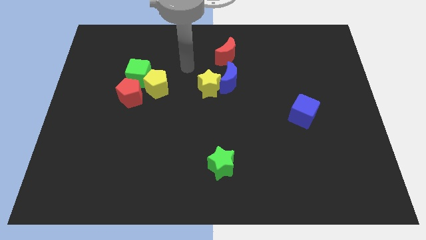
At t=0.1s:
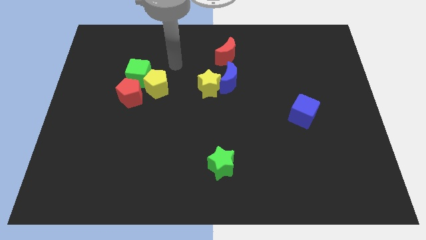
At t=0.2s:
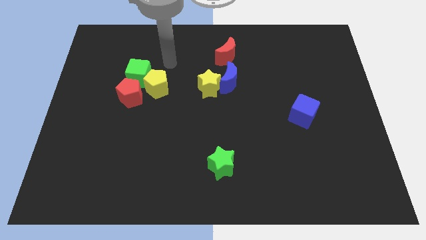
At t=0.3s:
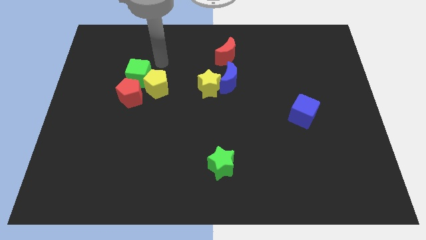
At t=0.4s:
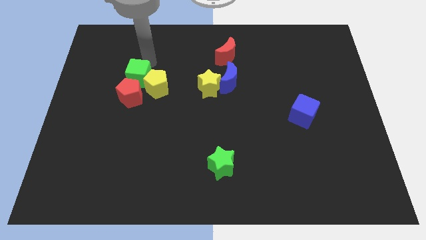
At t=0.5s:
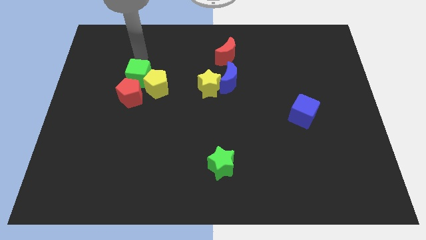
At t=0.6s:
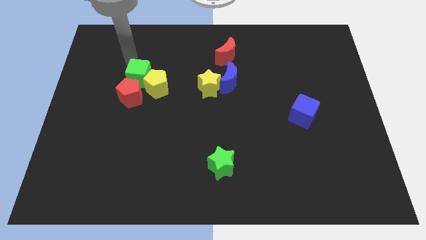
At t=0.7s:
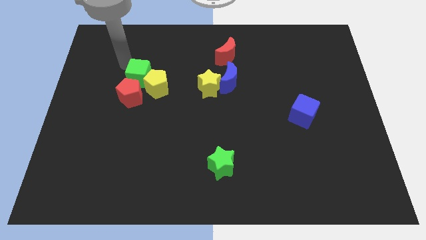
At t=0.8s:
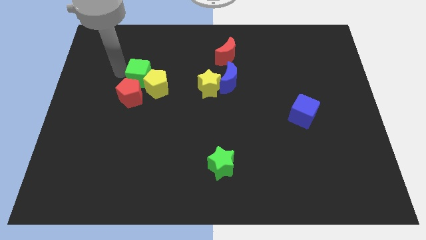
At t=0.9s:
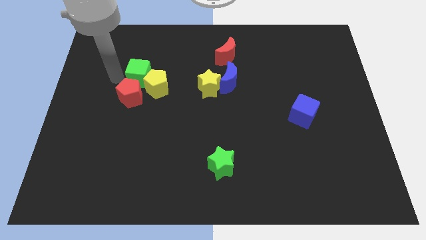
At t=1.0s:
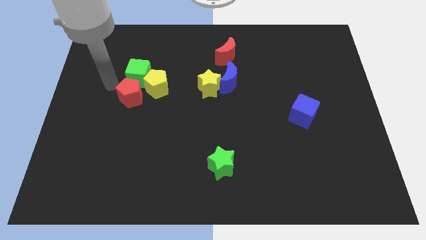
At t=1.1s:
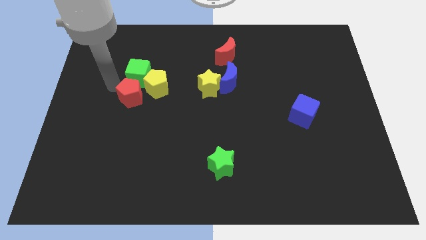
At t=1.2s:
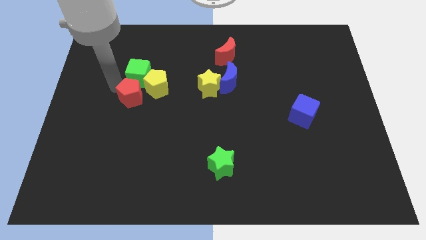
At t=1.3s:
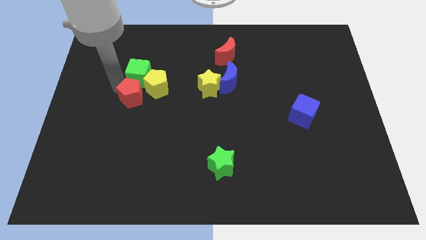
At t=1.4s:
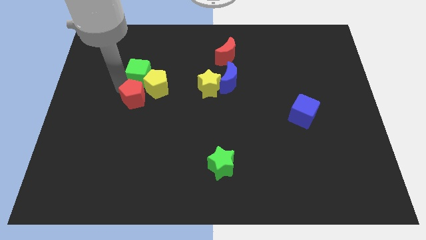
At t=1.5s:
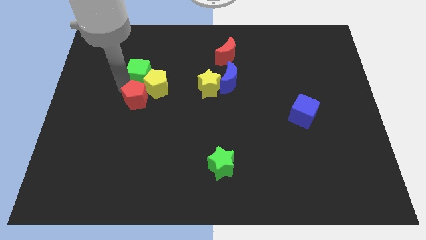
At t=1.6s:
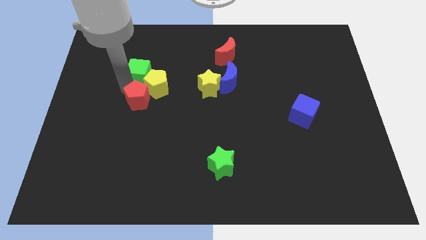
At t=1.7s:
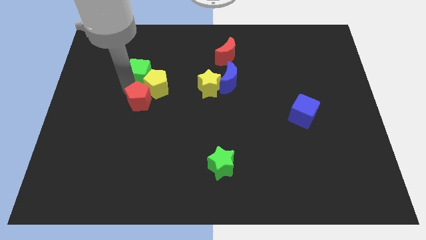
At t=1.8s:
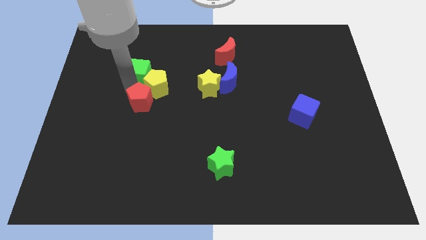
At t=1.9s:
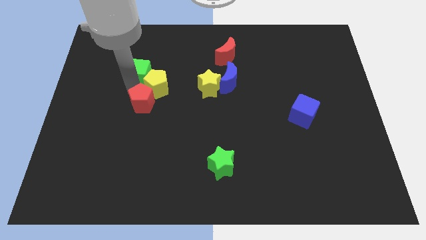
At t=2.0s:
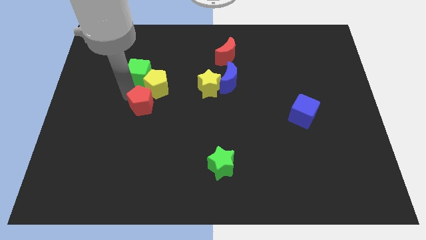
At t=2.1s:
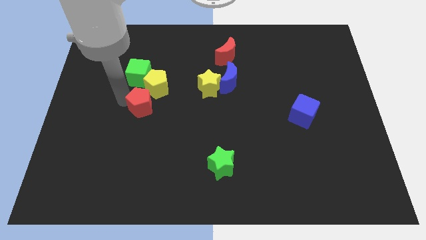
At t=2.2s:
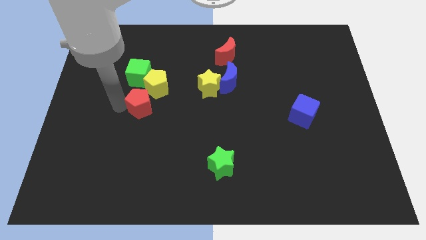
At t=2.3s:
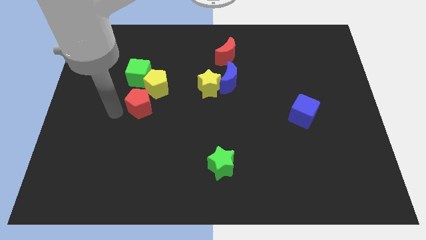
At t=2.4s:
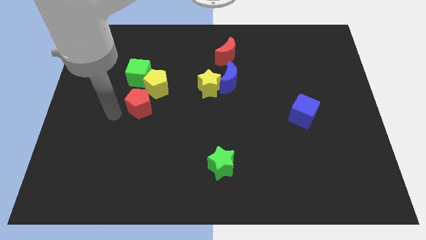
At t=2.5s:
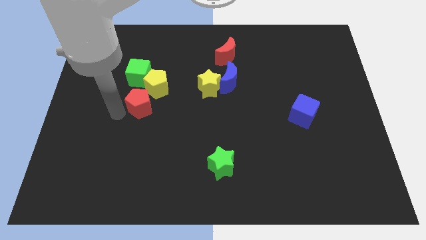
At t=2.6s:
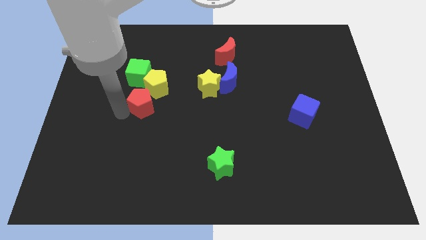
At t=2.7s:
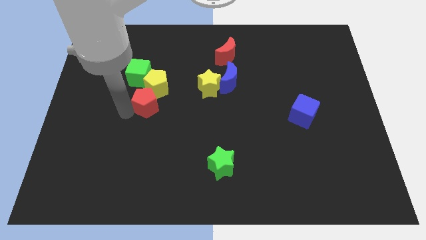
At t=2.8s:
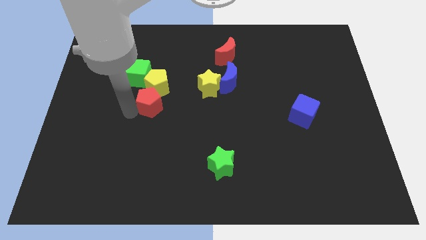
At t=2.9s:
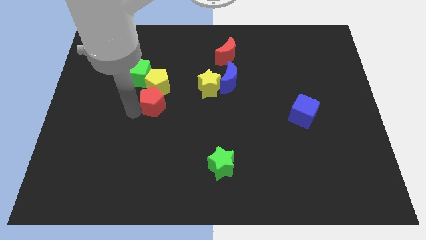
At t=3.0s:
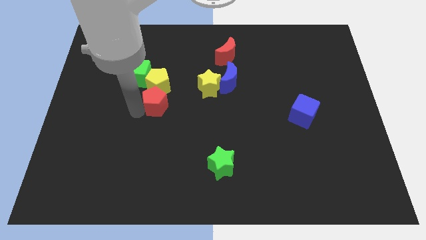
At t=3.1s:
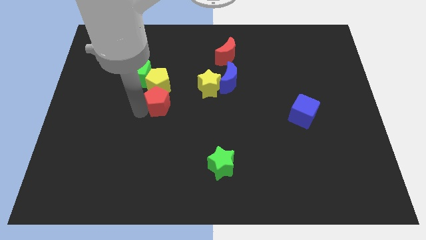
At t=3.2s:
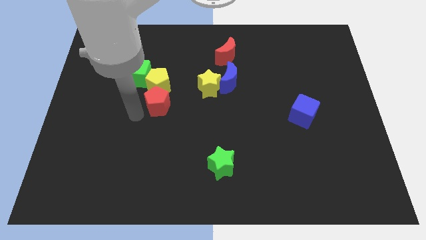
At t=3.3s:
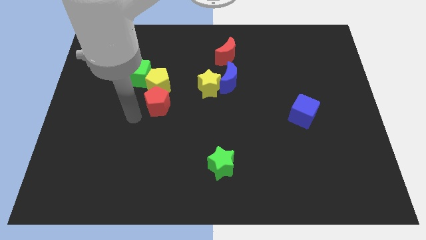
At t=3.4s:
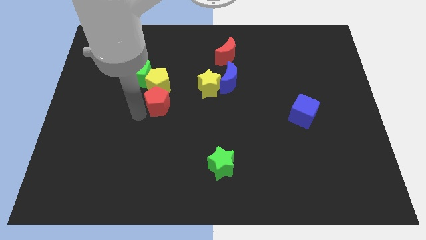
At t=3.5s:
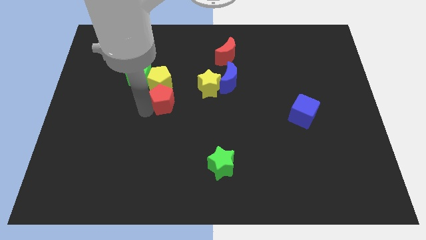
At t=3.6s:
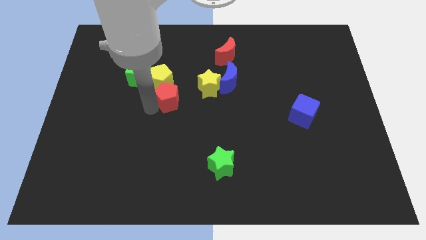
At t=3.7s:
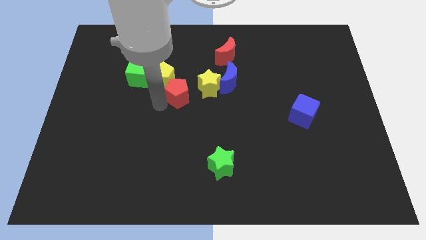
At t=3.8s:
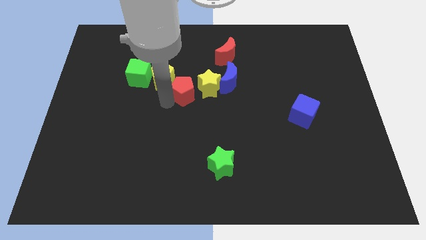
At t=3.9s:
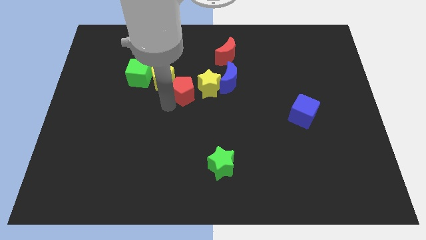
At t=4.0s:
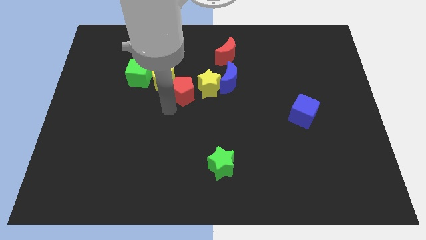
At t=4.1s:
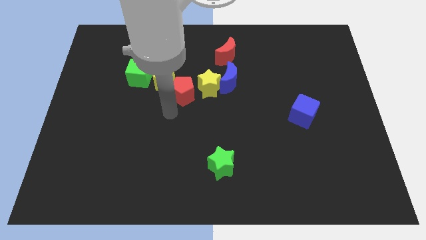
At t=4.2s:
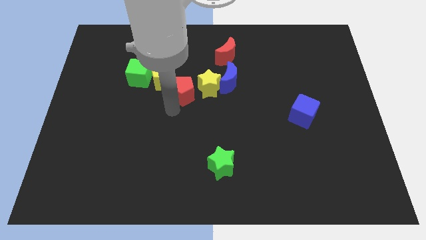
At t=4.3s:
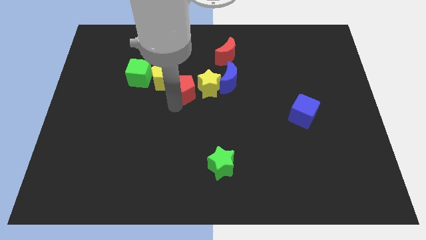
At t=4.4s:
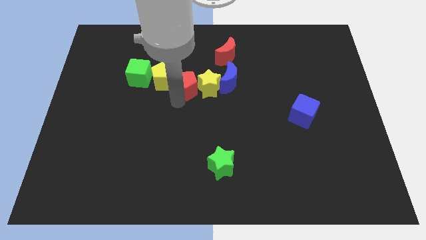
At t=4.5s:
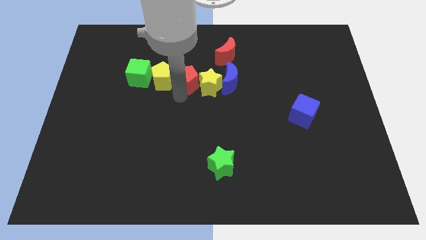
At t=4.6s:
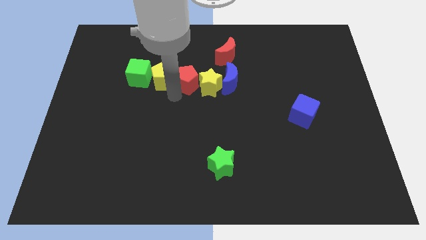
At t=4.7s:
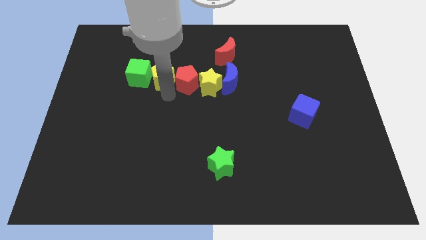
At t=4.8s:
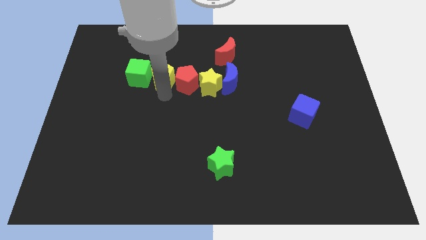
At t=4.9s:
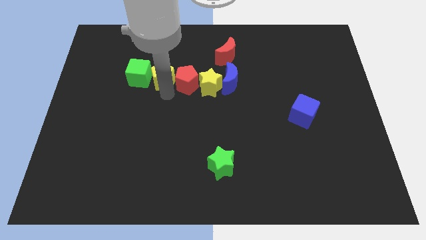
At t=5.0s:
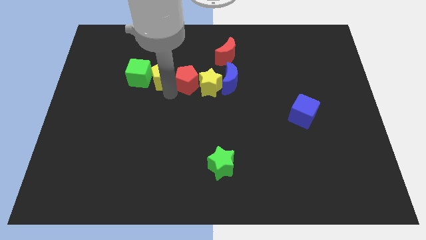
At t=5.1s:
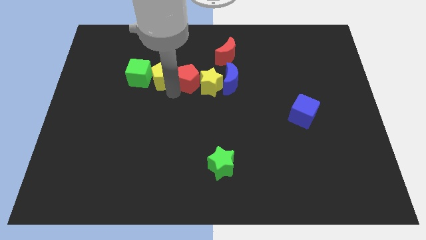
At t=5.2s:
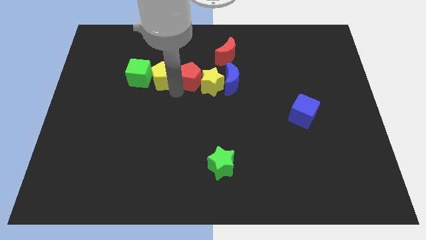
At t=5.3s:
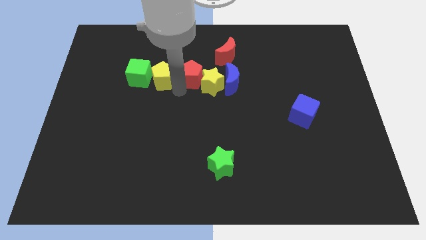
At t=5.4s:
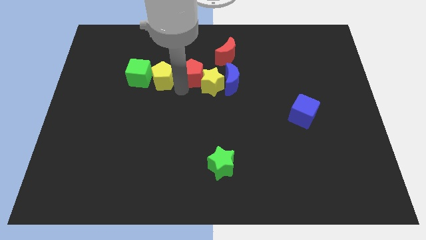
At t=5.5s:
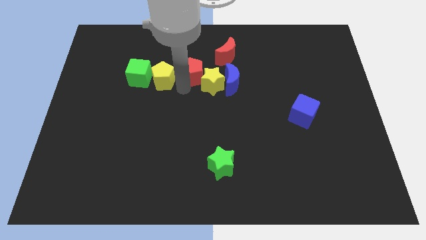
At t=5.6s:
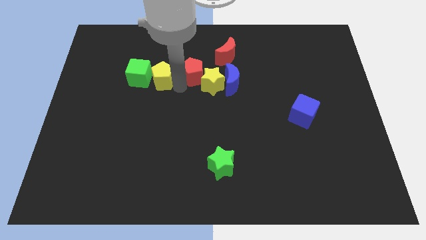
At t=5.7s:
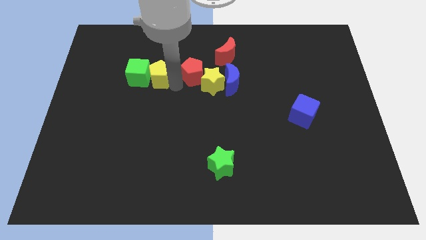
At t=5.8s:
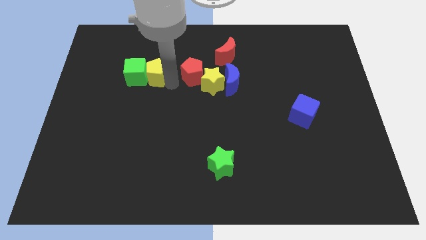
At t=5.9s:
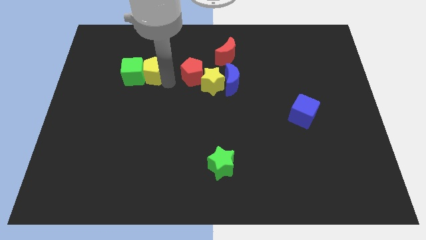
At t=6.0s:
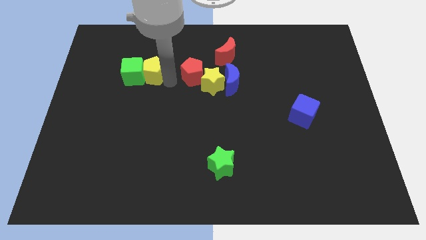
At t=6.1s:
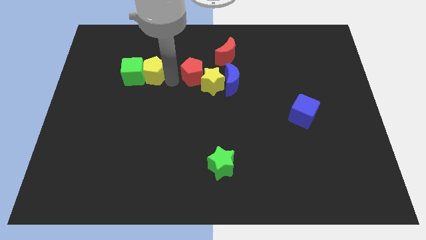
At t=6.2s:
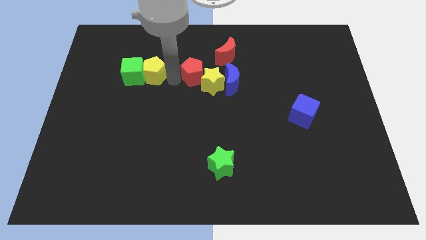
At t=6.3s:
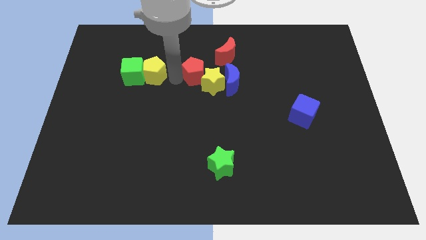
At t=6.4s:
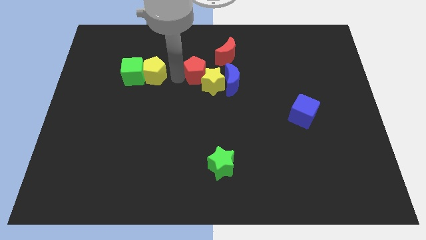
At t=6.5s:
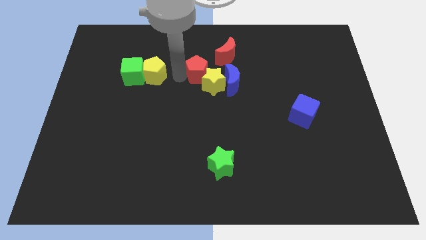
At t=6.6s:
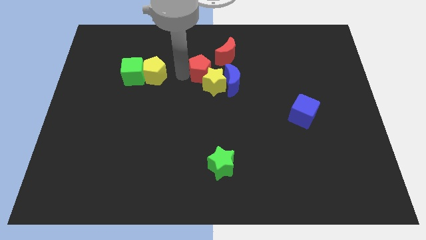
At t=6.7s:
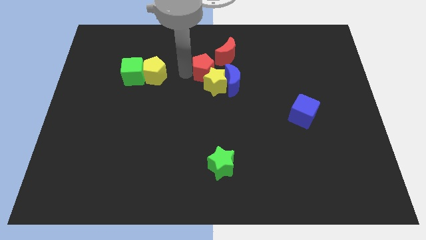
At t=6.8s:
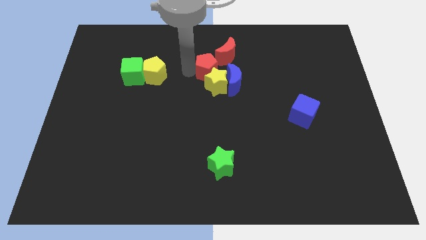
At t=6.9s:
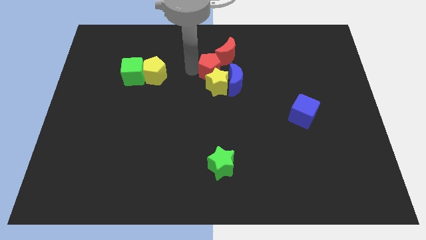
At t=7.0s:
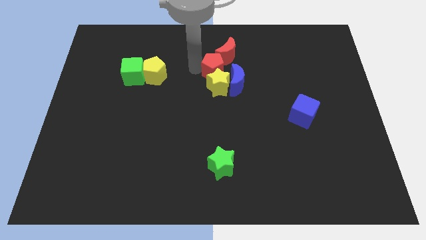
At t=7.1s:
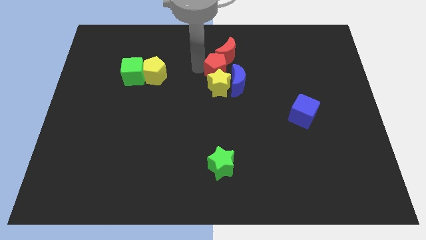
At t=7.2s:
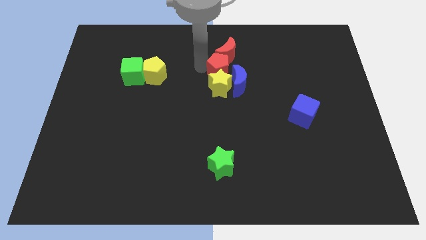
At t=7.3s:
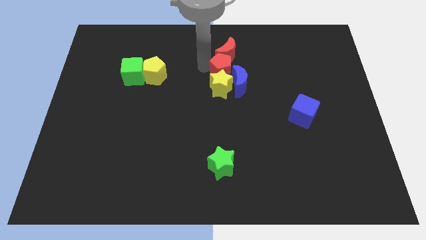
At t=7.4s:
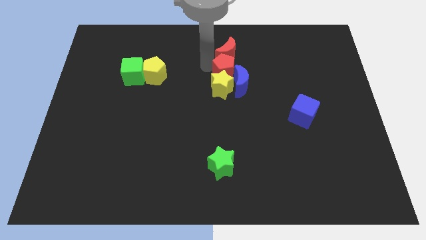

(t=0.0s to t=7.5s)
move the red pentagon to the blue moon
